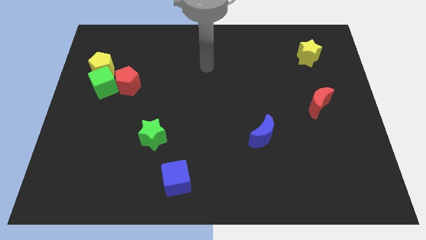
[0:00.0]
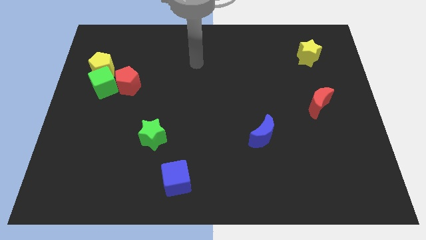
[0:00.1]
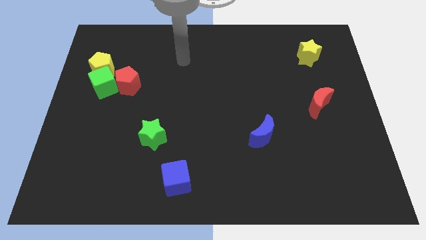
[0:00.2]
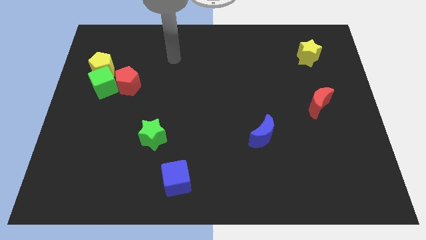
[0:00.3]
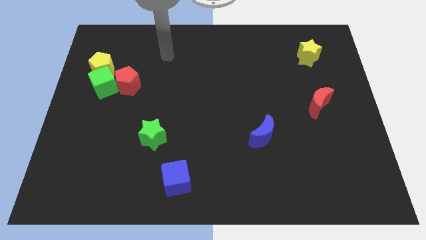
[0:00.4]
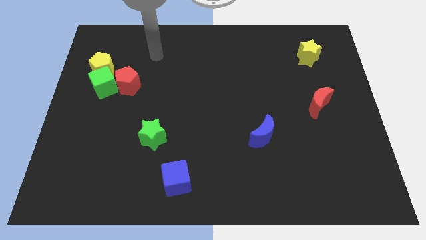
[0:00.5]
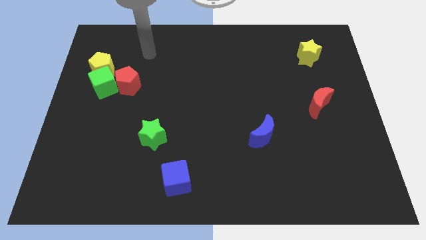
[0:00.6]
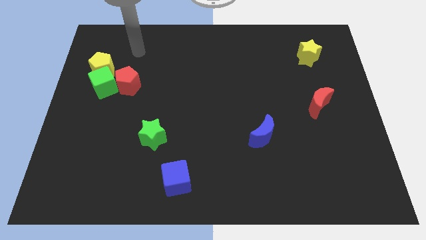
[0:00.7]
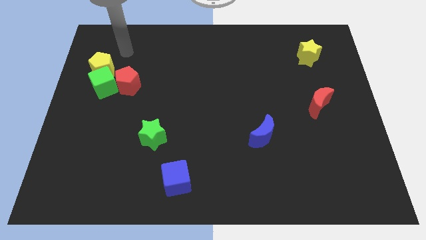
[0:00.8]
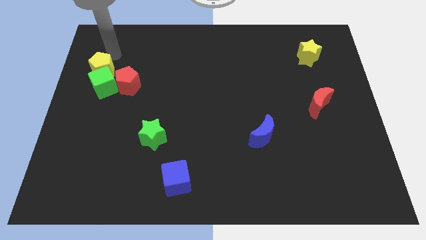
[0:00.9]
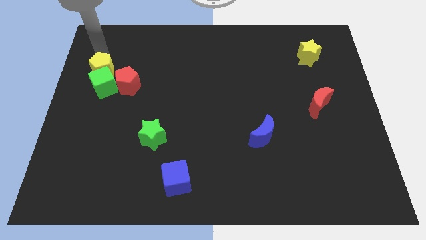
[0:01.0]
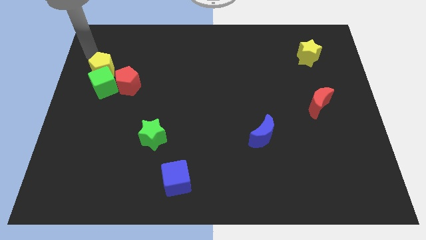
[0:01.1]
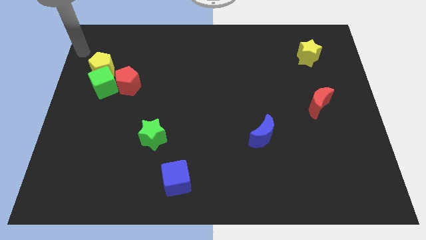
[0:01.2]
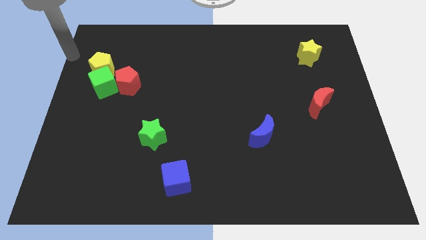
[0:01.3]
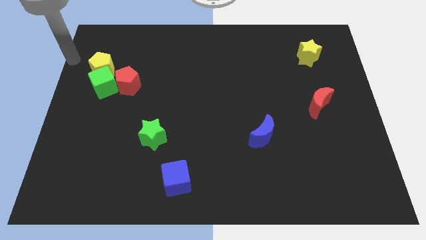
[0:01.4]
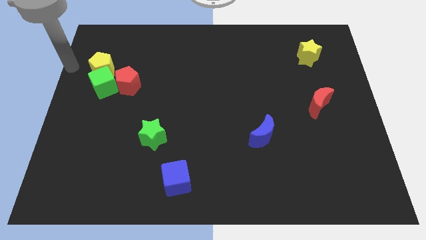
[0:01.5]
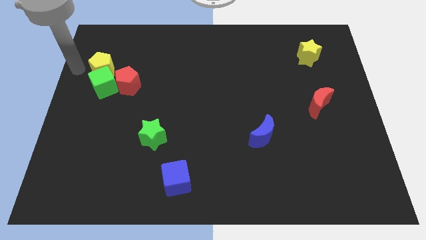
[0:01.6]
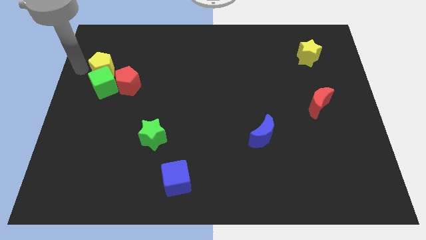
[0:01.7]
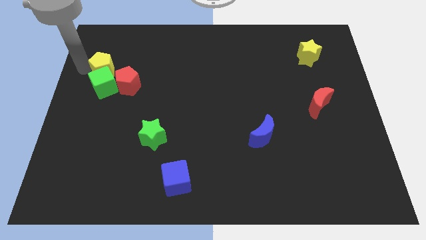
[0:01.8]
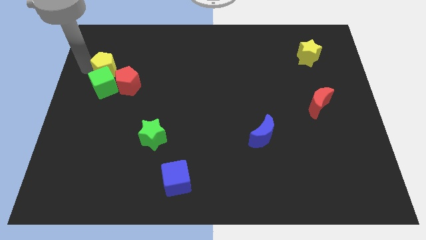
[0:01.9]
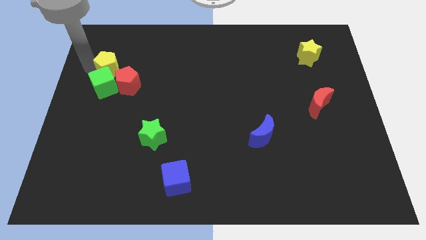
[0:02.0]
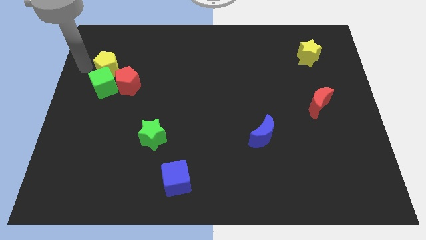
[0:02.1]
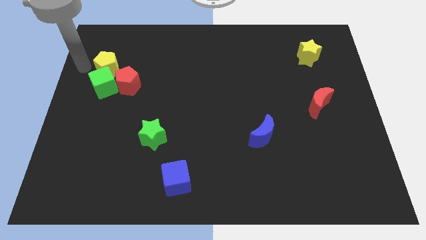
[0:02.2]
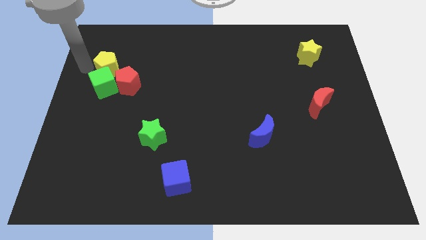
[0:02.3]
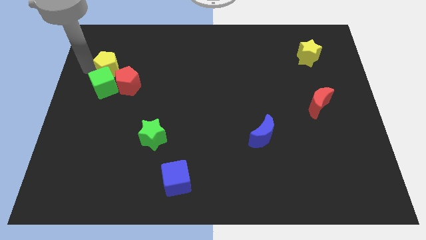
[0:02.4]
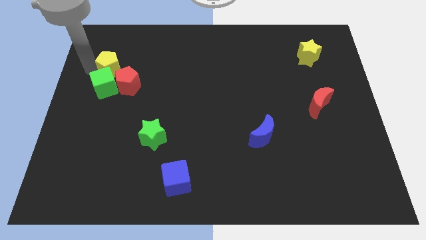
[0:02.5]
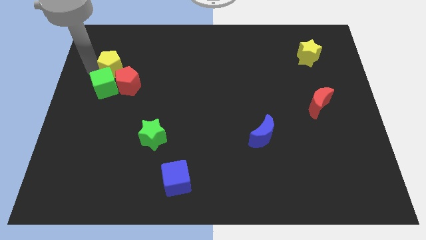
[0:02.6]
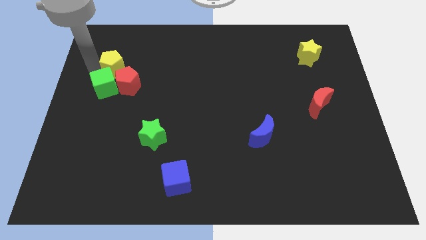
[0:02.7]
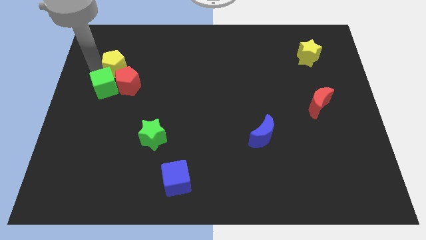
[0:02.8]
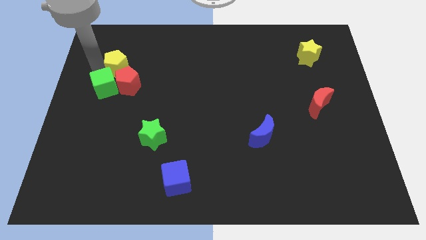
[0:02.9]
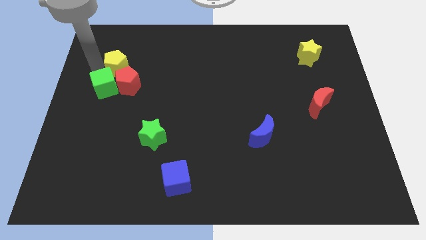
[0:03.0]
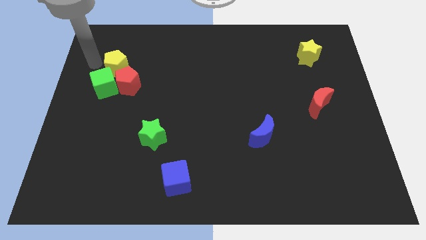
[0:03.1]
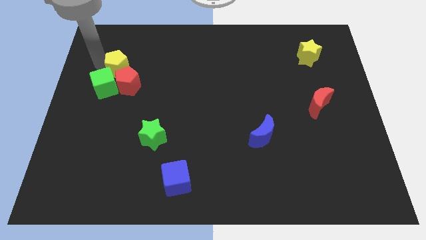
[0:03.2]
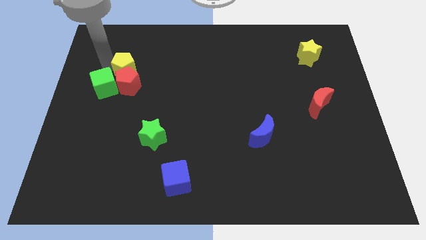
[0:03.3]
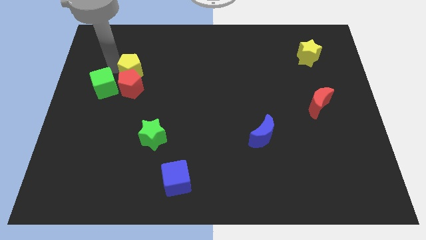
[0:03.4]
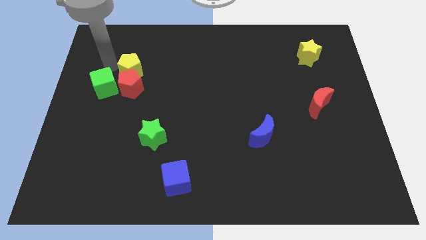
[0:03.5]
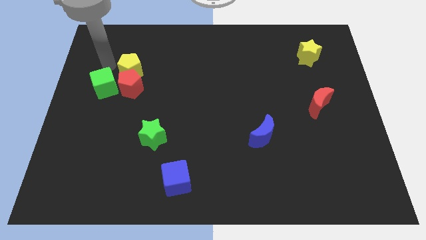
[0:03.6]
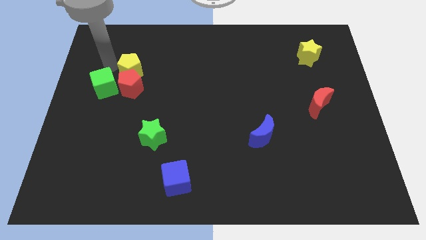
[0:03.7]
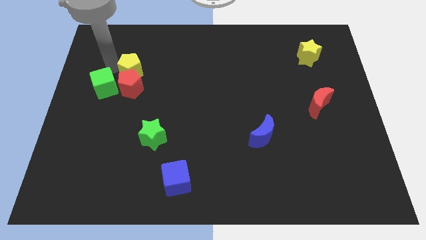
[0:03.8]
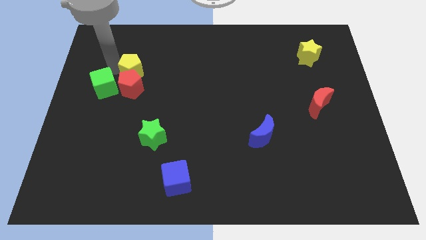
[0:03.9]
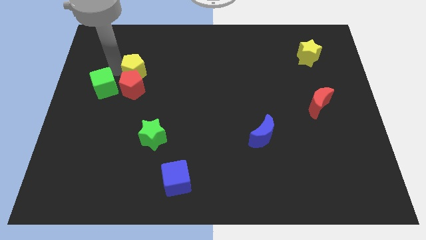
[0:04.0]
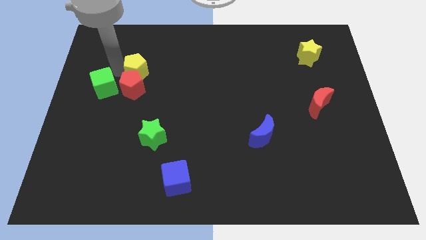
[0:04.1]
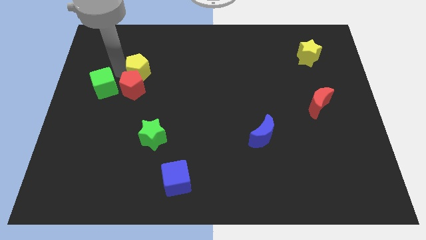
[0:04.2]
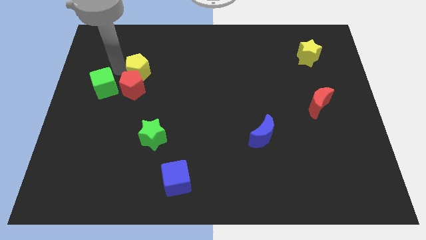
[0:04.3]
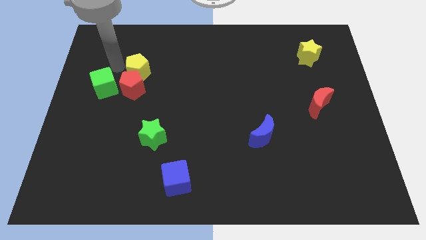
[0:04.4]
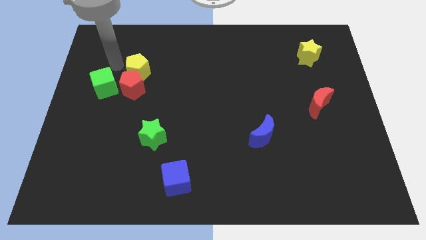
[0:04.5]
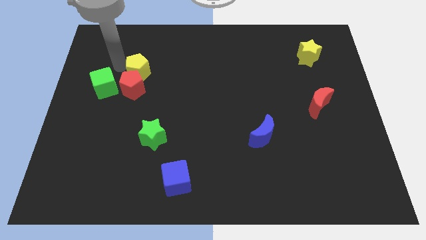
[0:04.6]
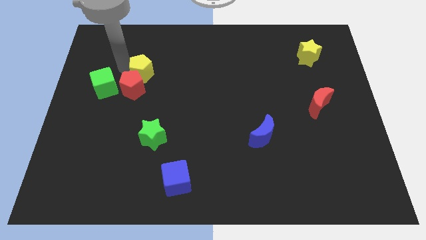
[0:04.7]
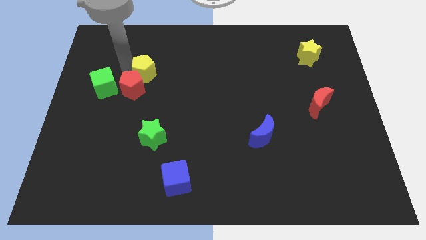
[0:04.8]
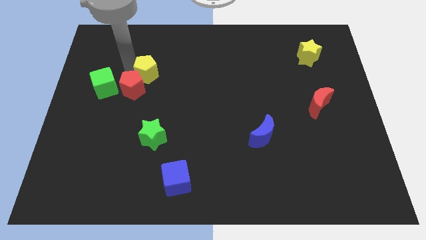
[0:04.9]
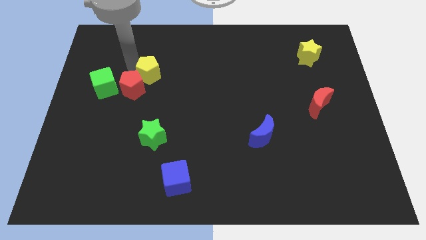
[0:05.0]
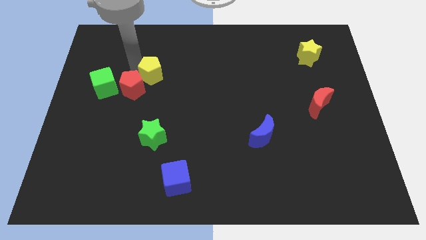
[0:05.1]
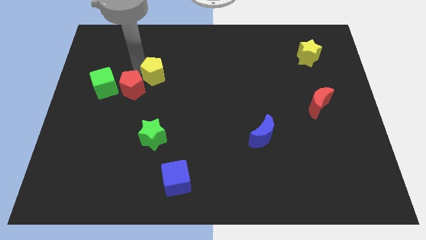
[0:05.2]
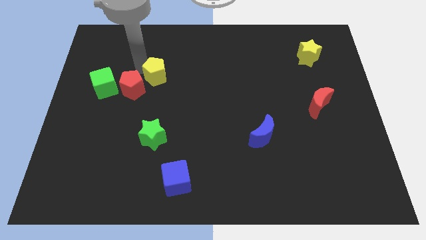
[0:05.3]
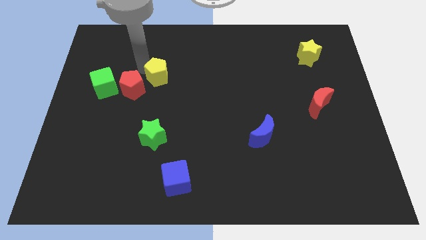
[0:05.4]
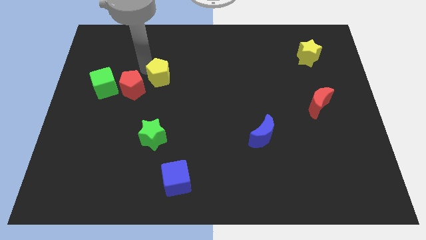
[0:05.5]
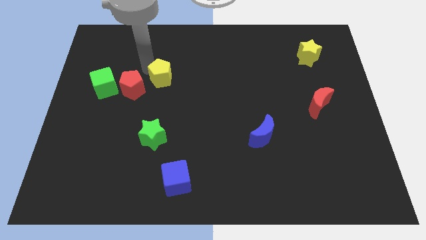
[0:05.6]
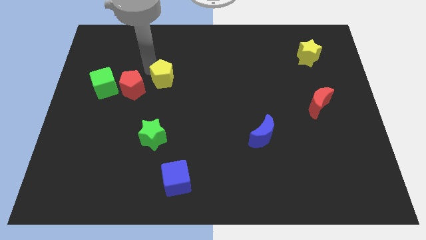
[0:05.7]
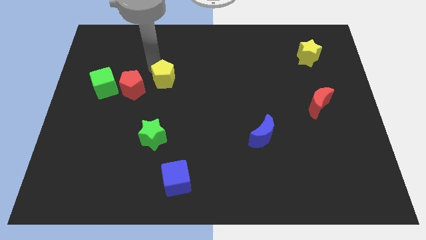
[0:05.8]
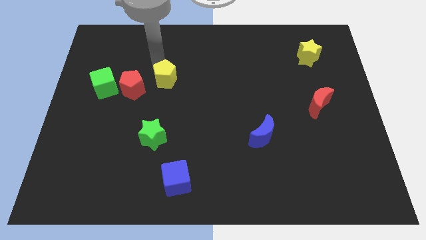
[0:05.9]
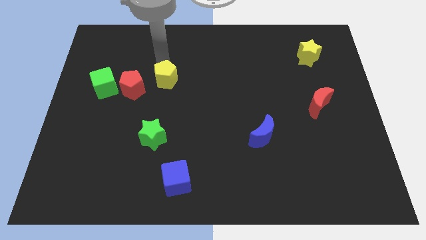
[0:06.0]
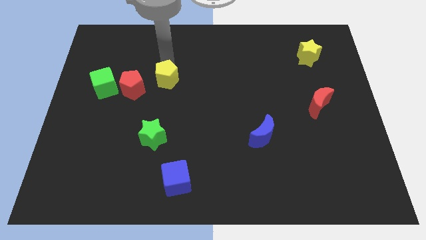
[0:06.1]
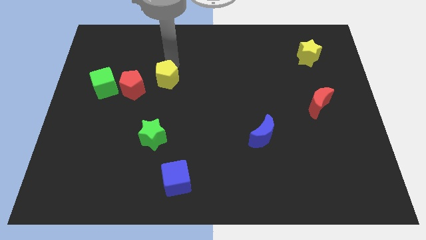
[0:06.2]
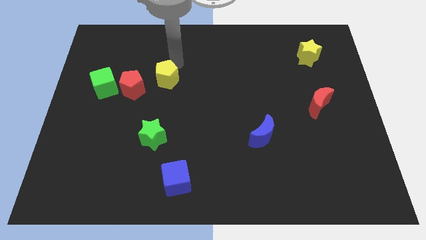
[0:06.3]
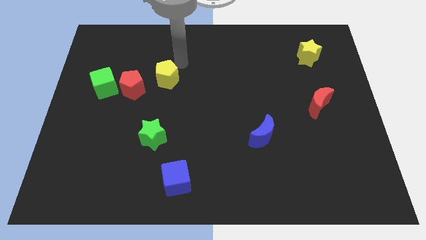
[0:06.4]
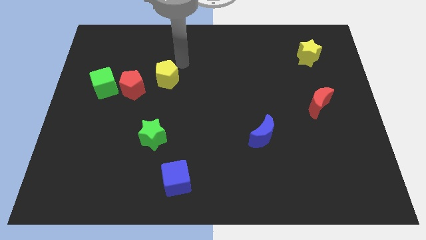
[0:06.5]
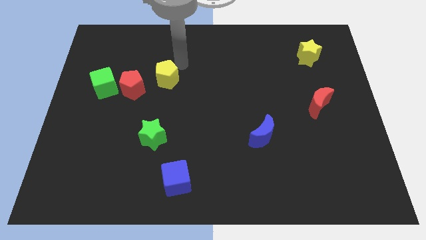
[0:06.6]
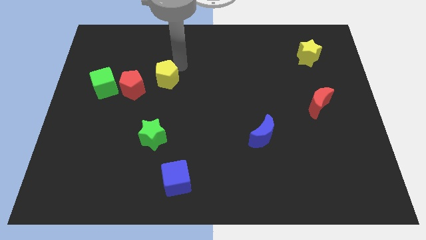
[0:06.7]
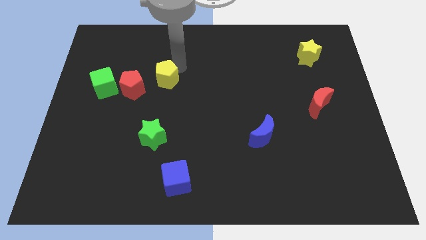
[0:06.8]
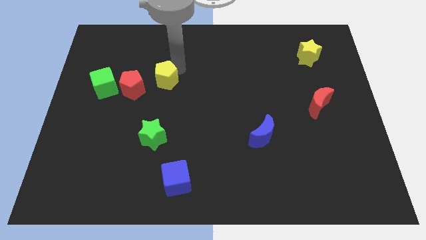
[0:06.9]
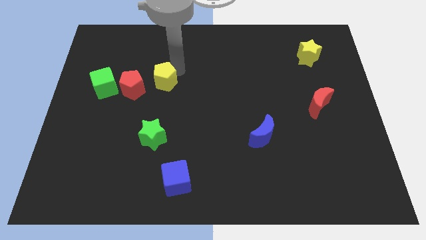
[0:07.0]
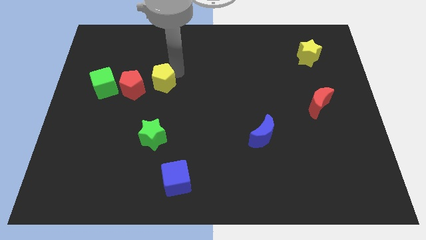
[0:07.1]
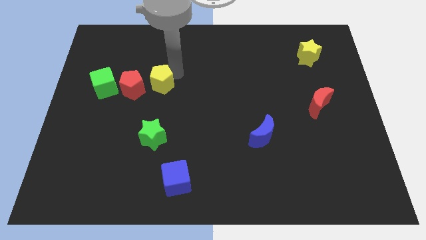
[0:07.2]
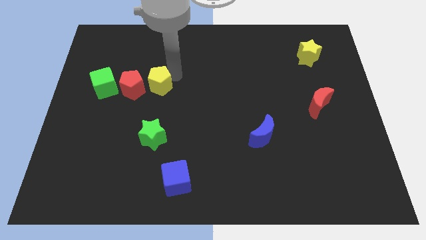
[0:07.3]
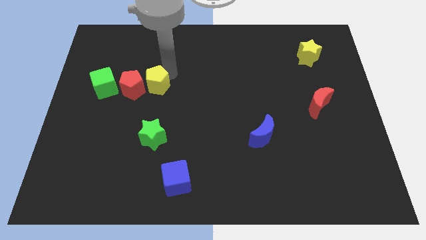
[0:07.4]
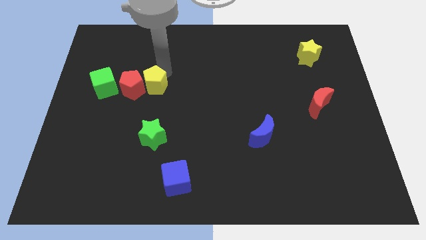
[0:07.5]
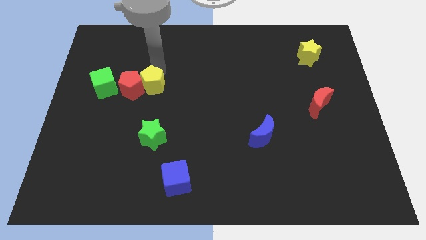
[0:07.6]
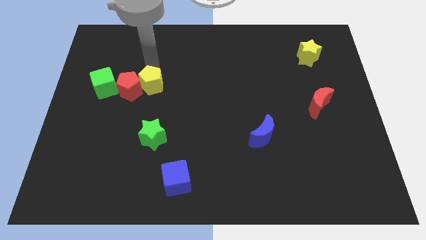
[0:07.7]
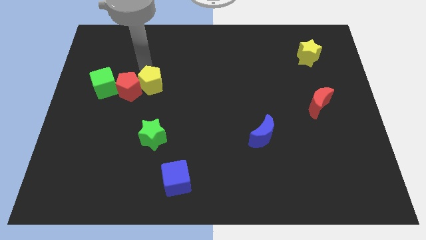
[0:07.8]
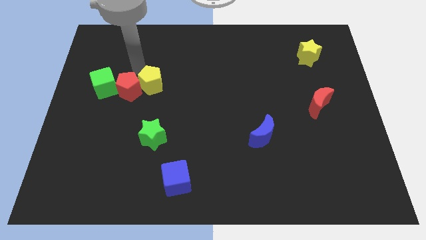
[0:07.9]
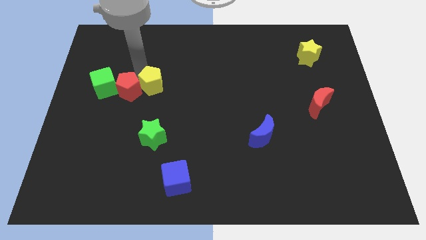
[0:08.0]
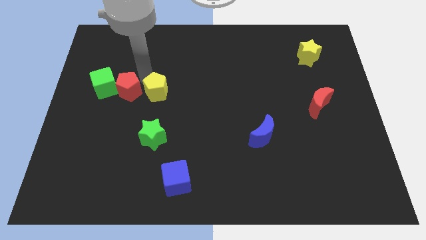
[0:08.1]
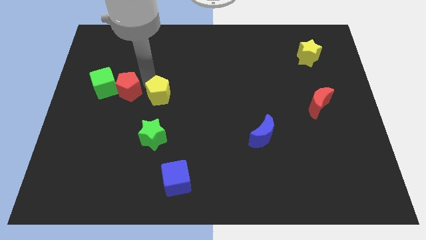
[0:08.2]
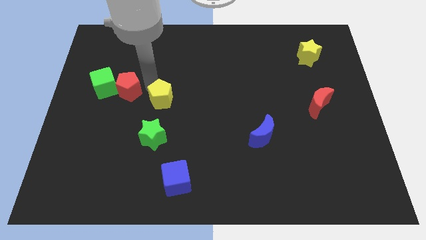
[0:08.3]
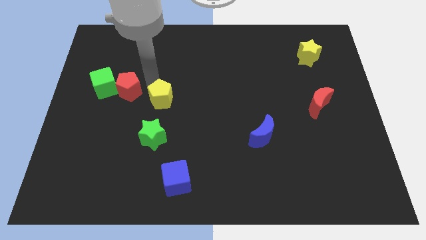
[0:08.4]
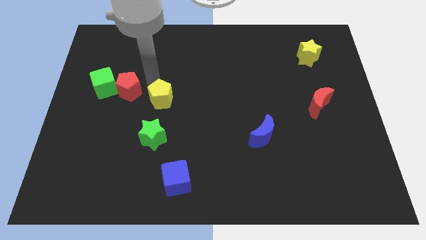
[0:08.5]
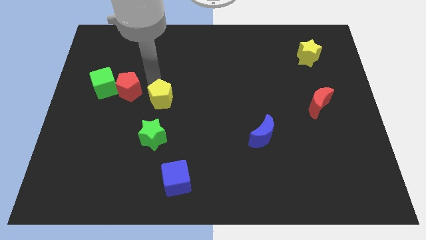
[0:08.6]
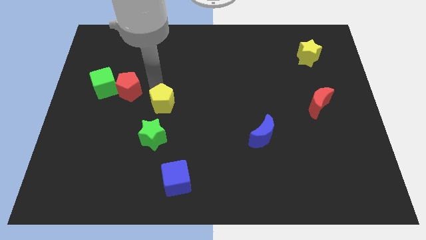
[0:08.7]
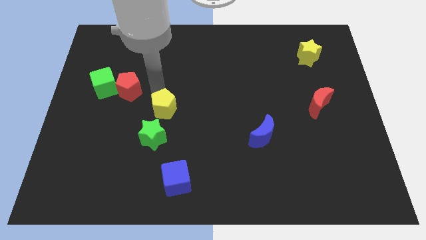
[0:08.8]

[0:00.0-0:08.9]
slide the yellow pentagon downwards and to the right diagonally
